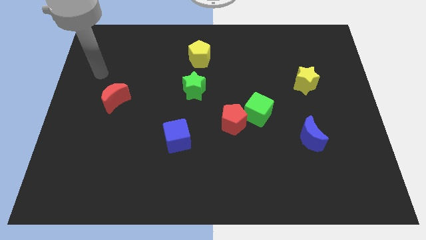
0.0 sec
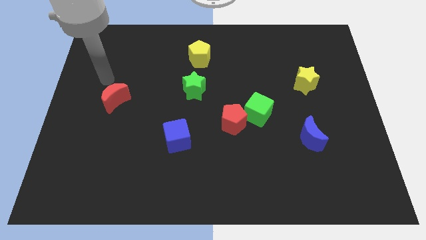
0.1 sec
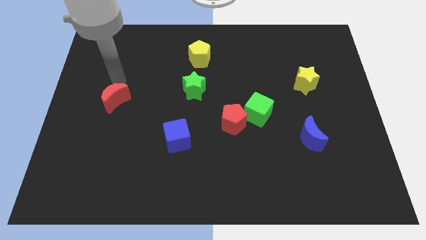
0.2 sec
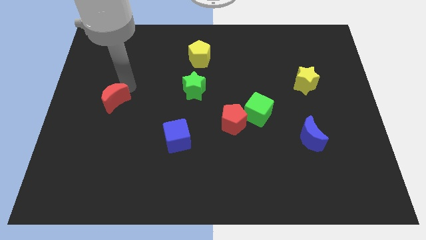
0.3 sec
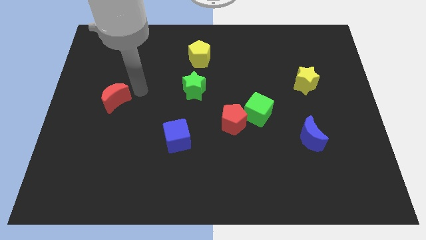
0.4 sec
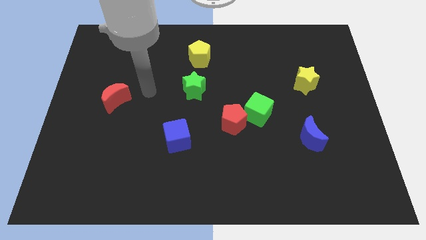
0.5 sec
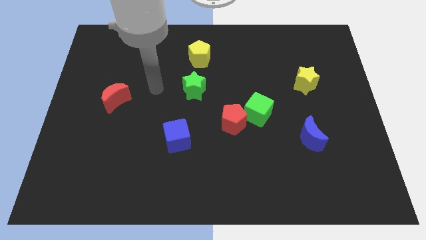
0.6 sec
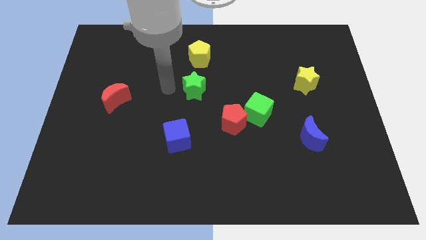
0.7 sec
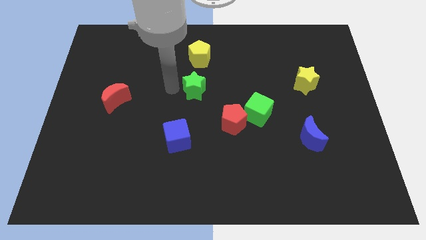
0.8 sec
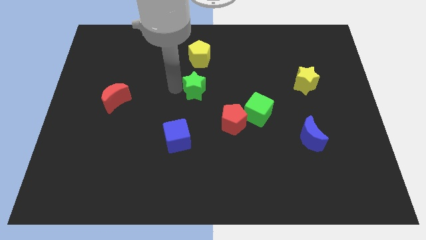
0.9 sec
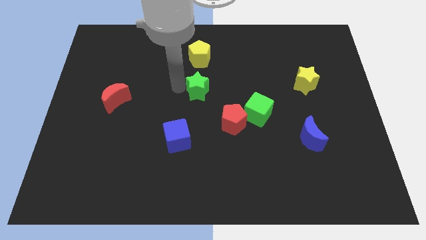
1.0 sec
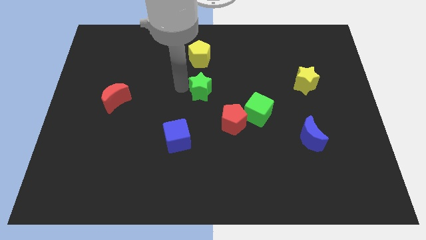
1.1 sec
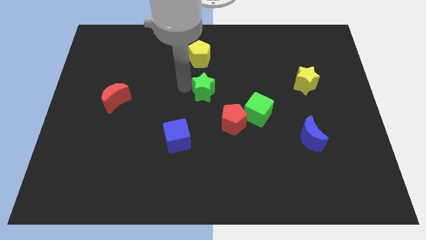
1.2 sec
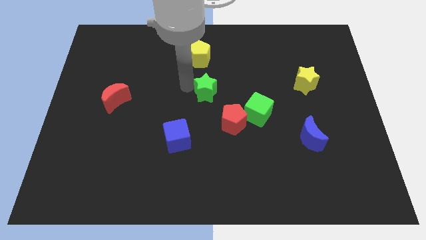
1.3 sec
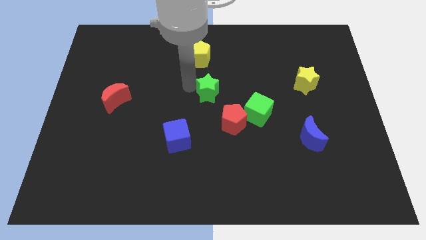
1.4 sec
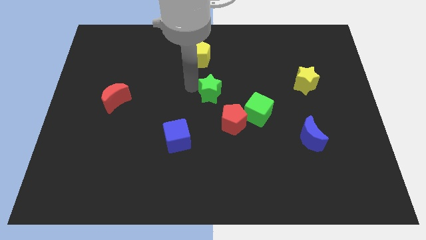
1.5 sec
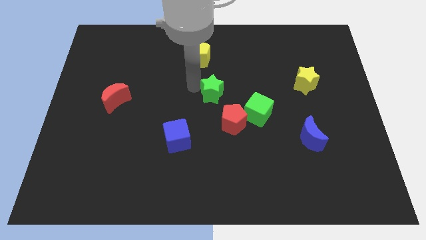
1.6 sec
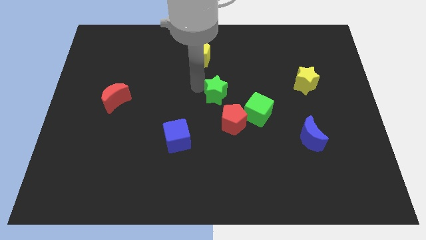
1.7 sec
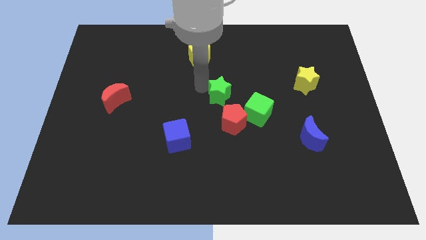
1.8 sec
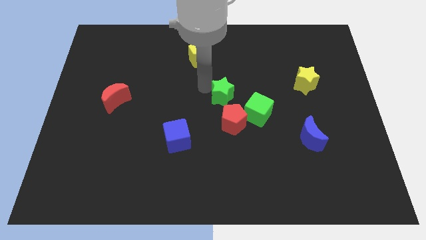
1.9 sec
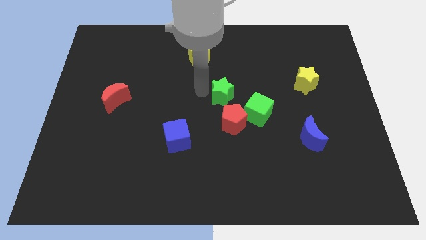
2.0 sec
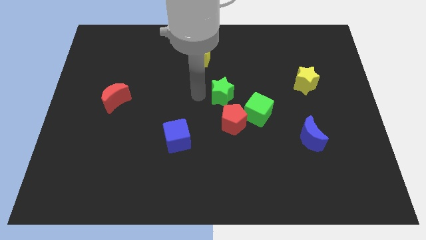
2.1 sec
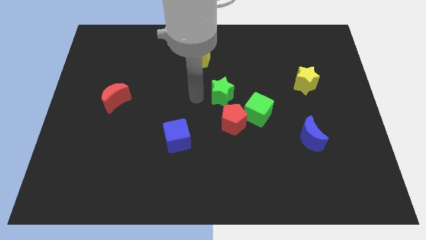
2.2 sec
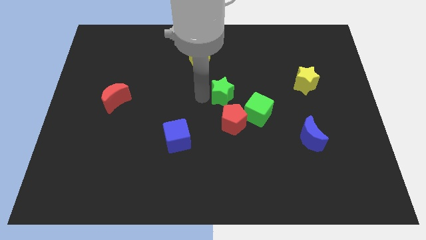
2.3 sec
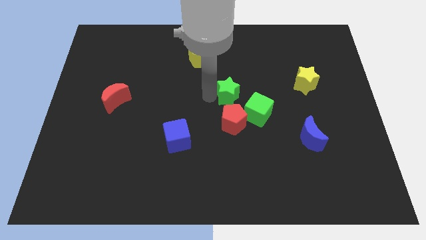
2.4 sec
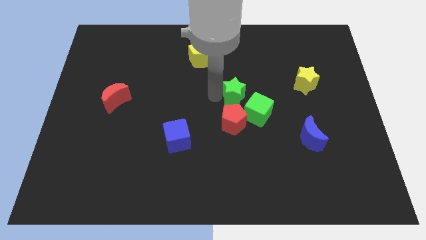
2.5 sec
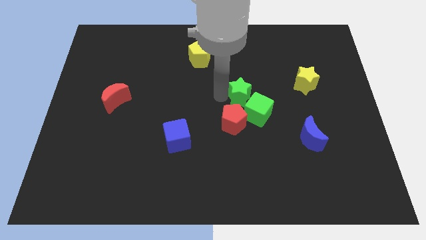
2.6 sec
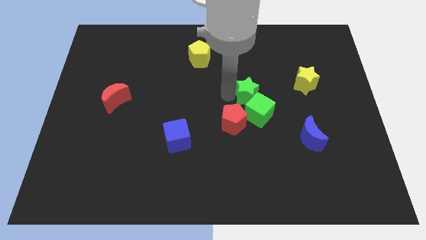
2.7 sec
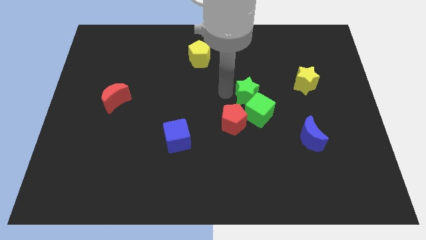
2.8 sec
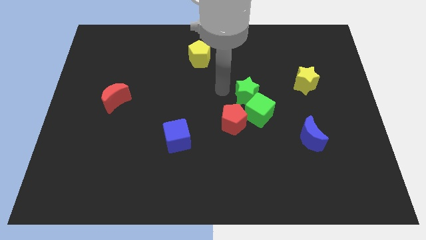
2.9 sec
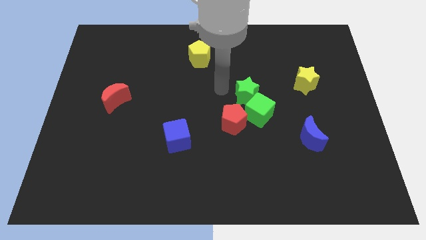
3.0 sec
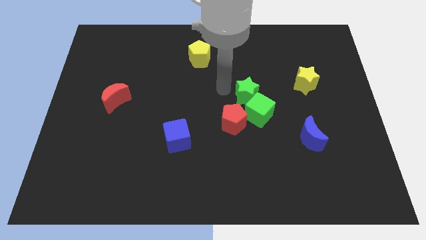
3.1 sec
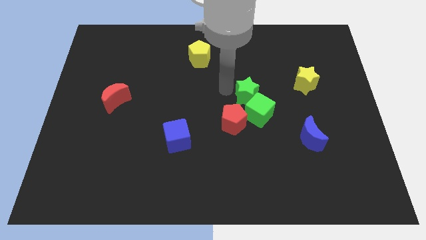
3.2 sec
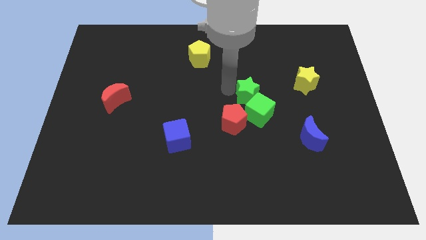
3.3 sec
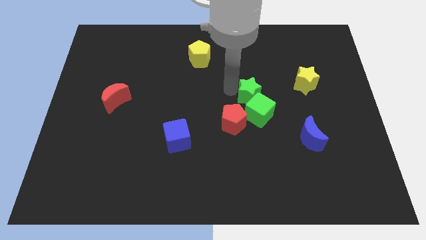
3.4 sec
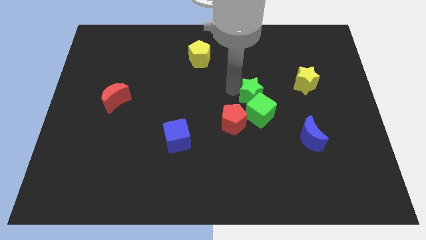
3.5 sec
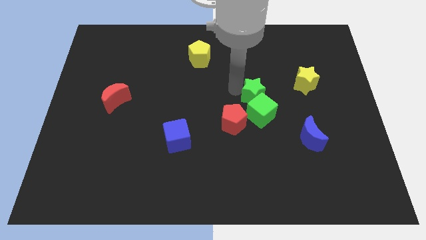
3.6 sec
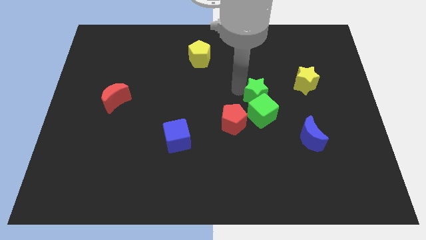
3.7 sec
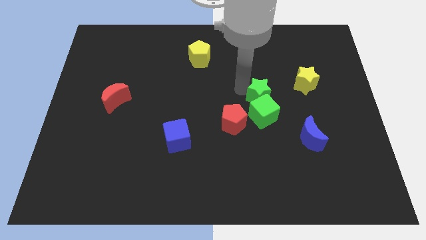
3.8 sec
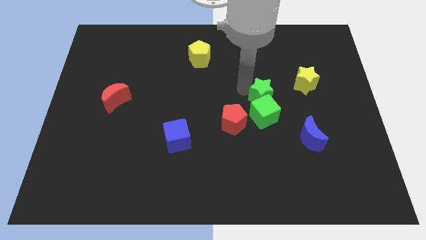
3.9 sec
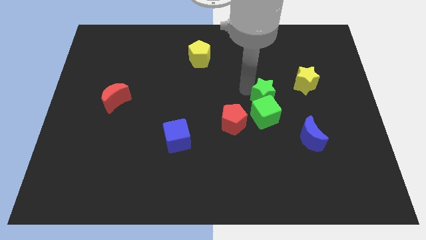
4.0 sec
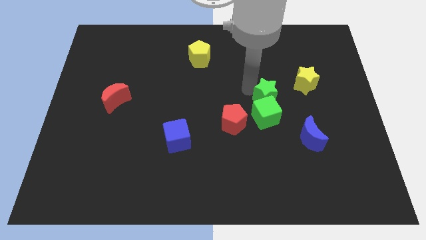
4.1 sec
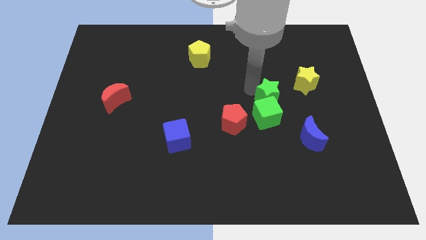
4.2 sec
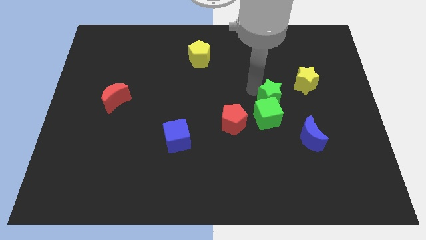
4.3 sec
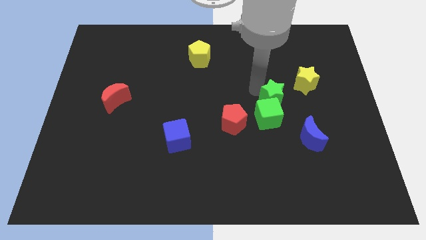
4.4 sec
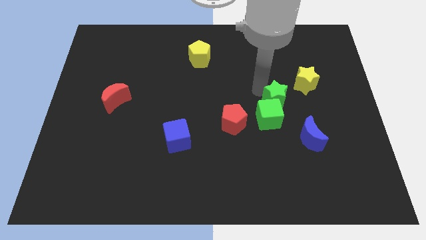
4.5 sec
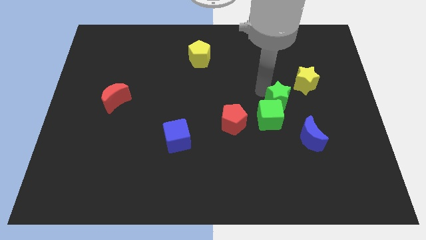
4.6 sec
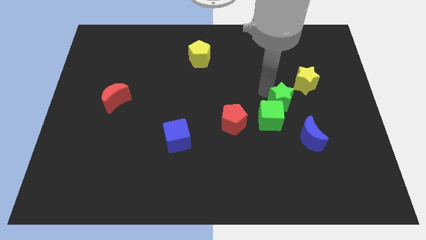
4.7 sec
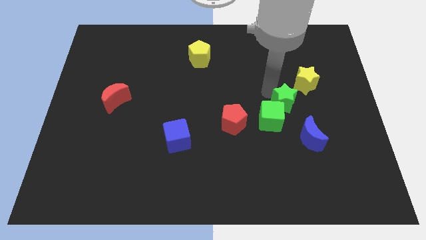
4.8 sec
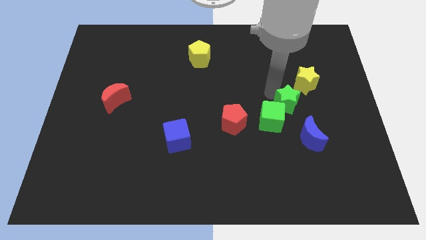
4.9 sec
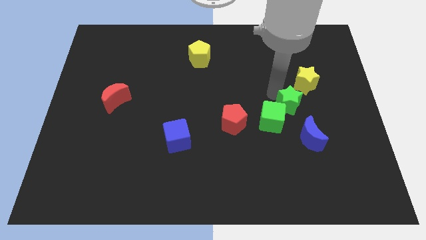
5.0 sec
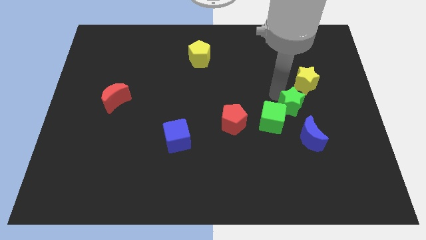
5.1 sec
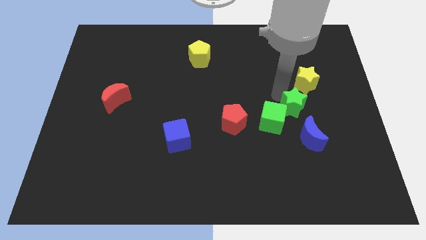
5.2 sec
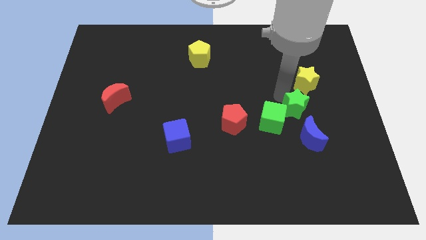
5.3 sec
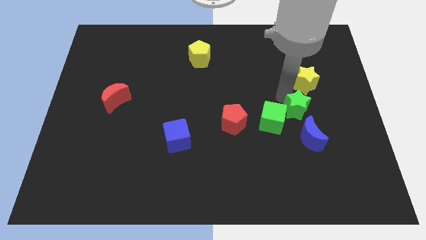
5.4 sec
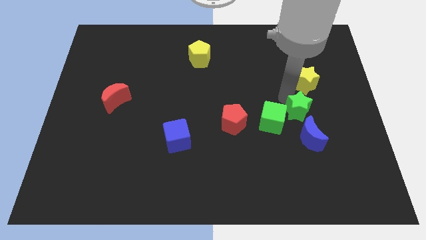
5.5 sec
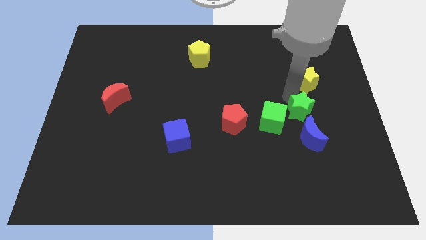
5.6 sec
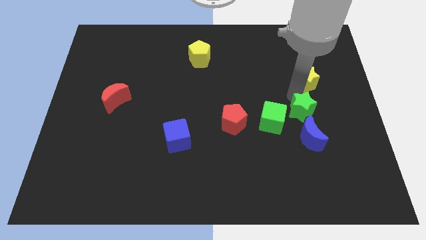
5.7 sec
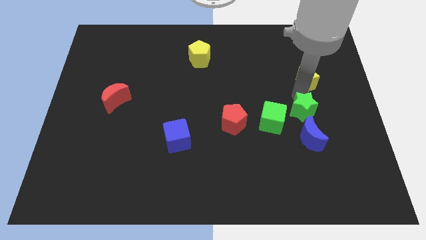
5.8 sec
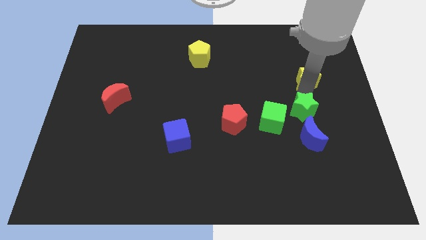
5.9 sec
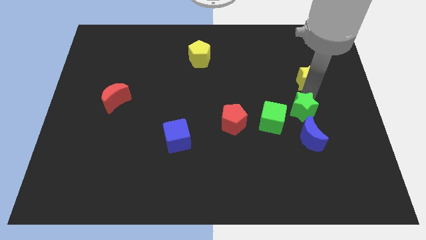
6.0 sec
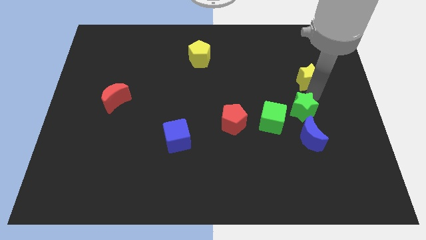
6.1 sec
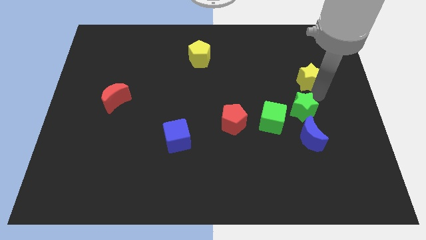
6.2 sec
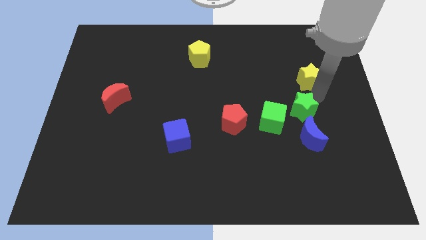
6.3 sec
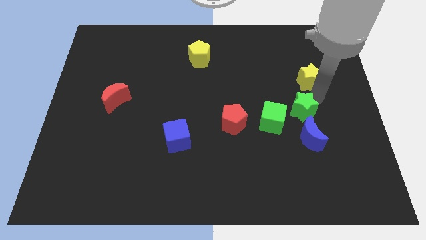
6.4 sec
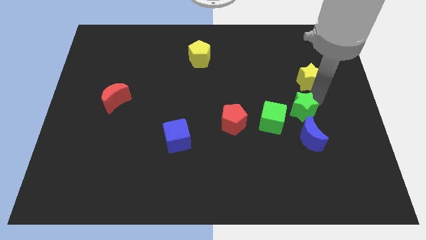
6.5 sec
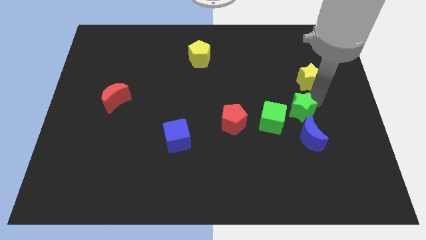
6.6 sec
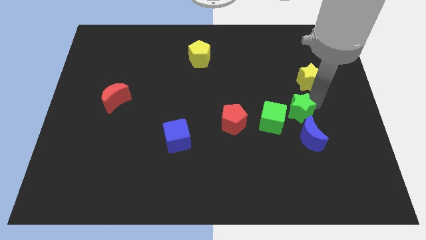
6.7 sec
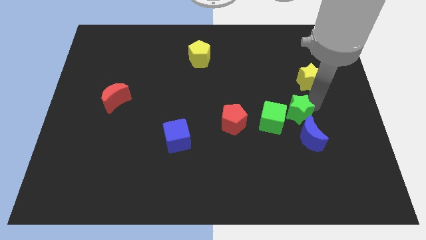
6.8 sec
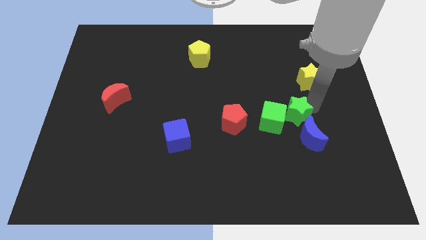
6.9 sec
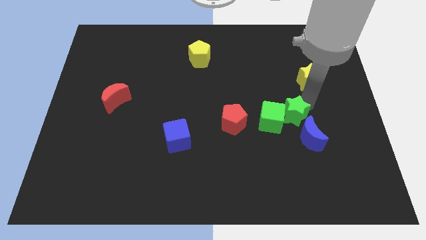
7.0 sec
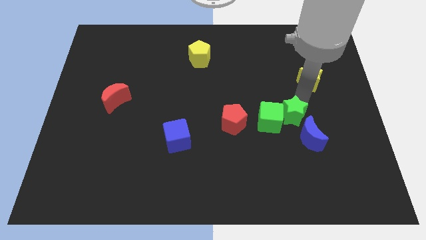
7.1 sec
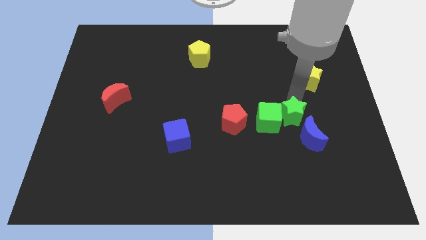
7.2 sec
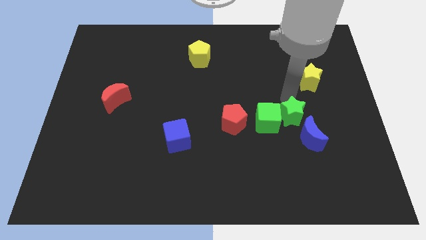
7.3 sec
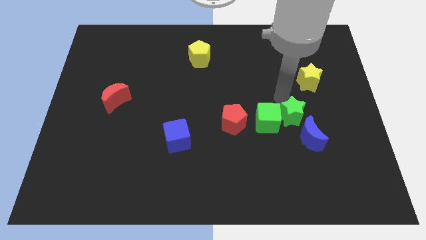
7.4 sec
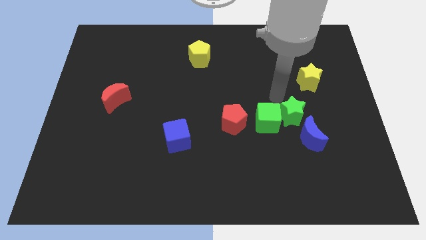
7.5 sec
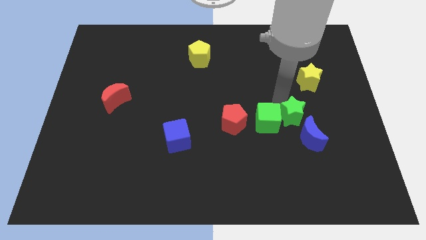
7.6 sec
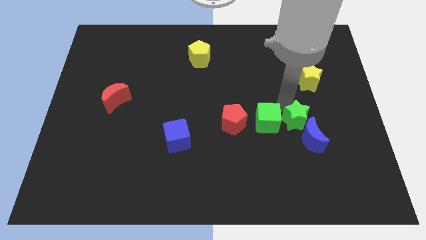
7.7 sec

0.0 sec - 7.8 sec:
put the green star next to the blue moon
